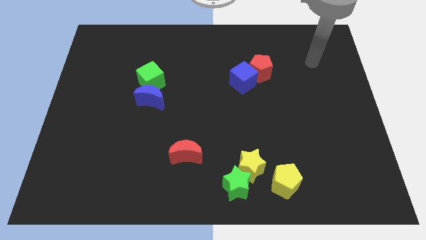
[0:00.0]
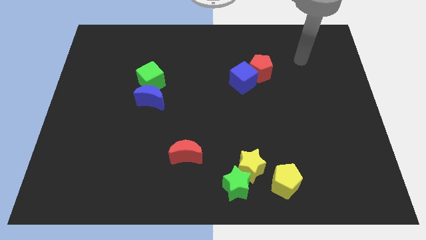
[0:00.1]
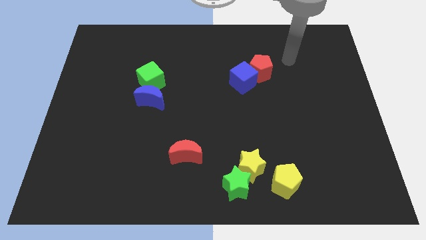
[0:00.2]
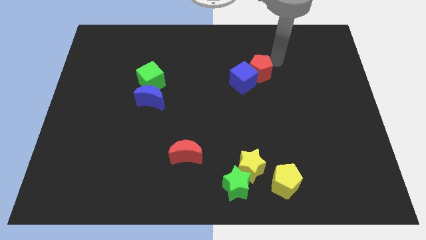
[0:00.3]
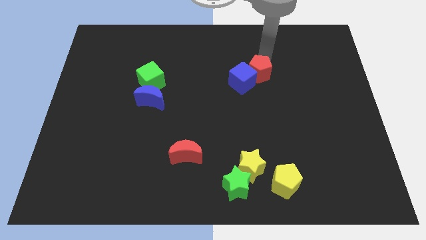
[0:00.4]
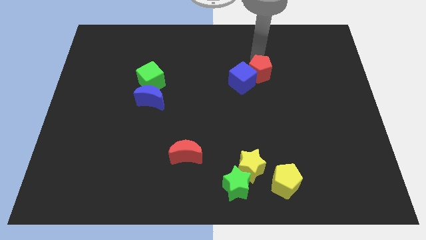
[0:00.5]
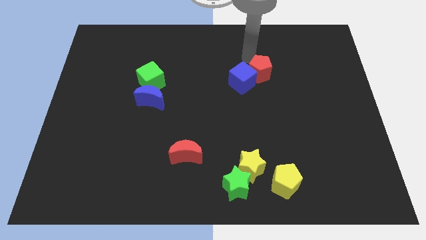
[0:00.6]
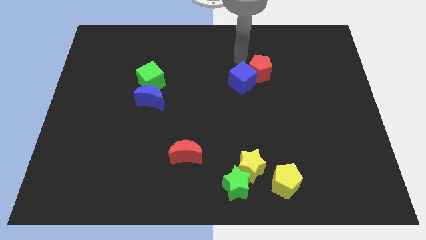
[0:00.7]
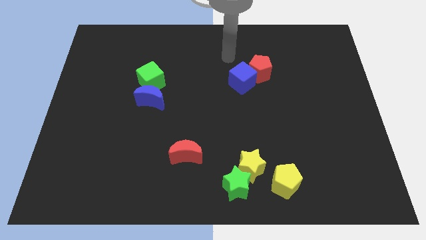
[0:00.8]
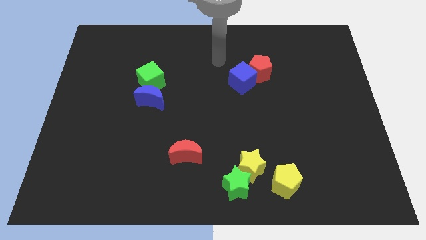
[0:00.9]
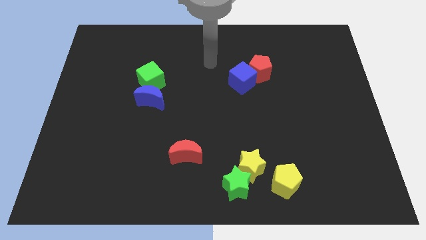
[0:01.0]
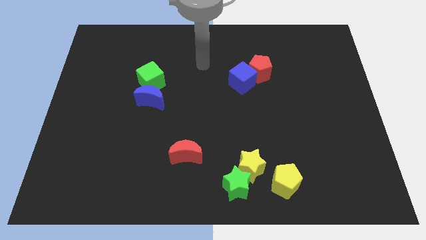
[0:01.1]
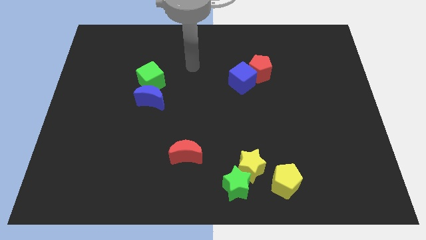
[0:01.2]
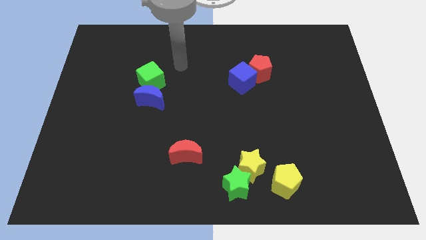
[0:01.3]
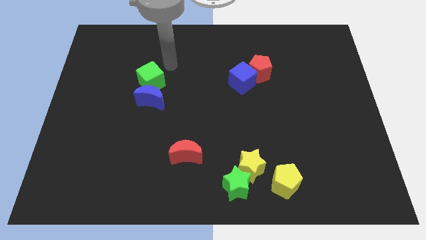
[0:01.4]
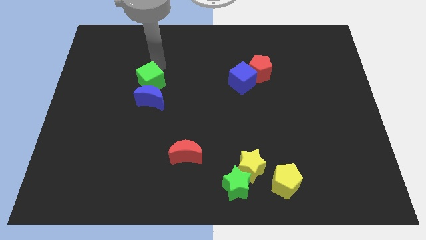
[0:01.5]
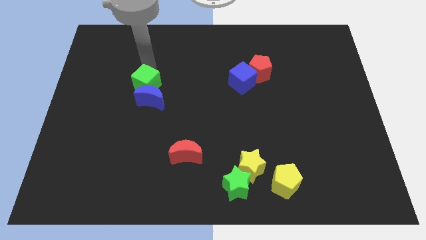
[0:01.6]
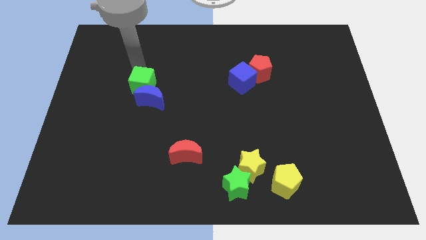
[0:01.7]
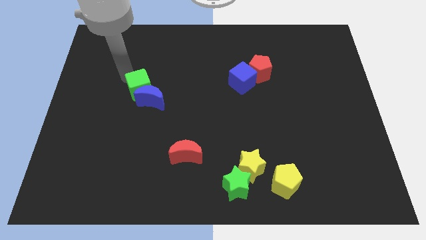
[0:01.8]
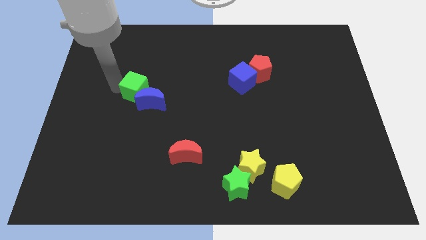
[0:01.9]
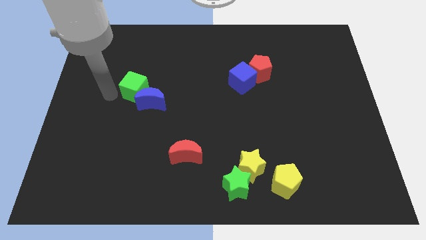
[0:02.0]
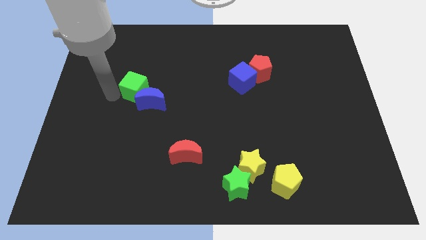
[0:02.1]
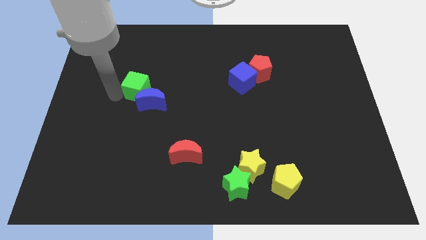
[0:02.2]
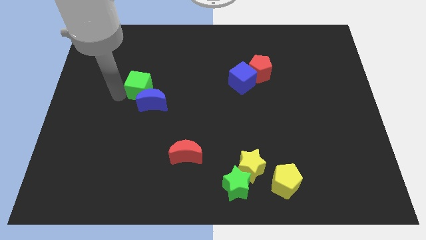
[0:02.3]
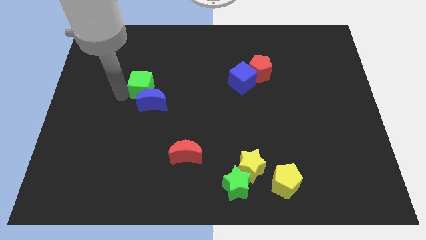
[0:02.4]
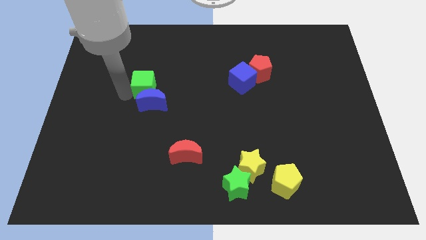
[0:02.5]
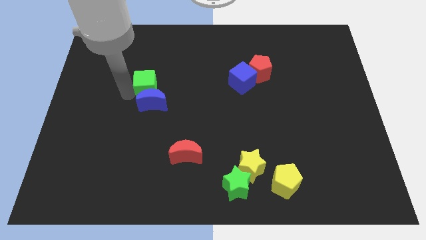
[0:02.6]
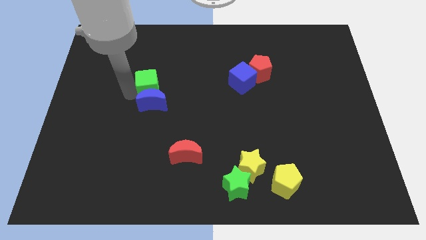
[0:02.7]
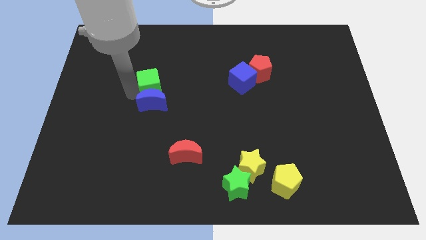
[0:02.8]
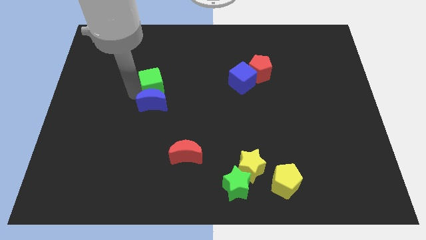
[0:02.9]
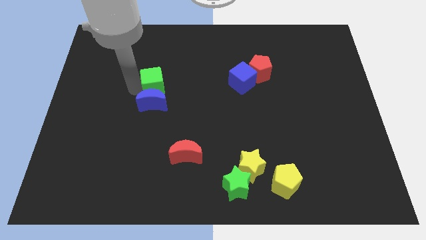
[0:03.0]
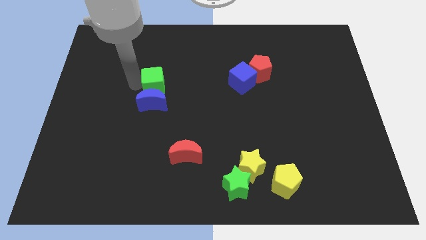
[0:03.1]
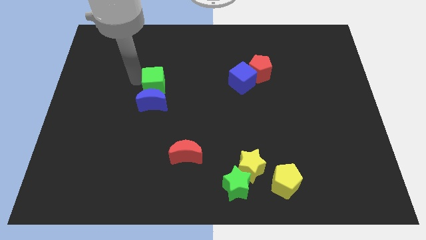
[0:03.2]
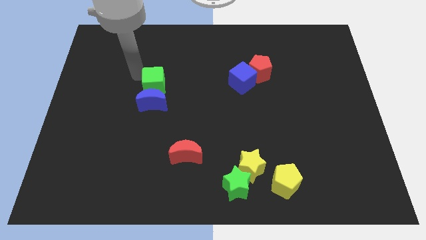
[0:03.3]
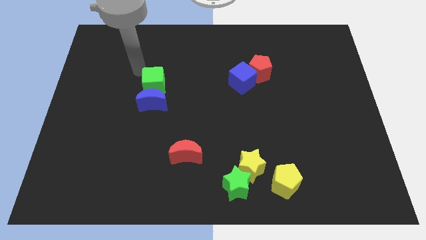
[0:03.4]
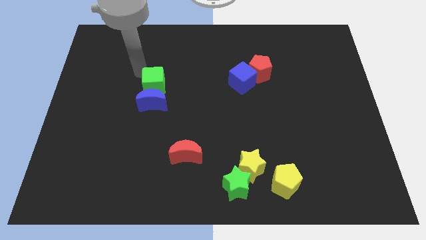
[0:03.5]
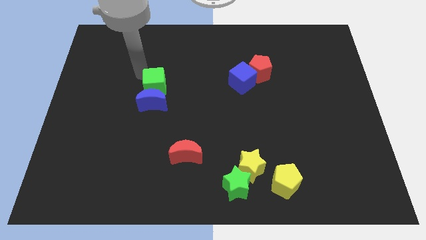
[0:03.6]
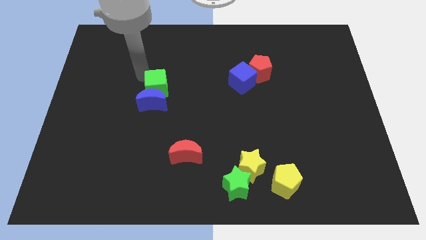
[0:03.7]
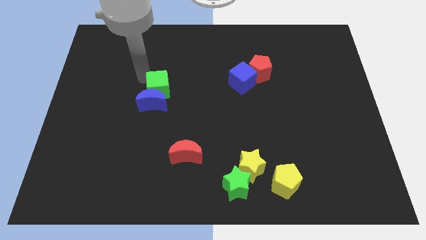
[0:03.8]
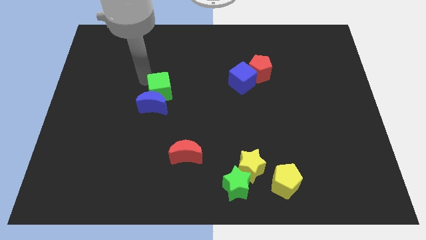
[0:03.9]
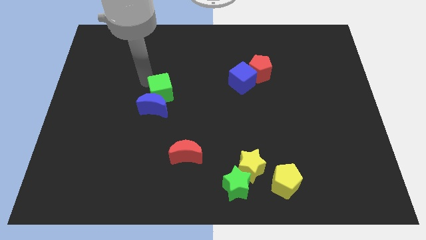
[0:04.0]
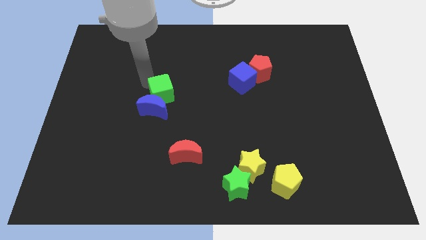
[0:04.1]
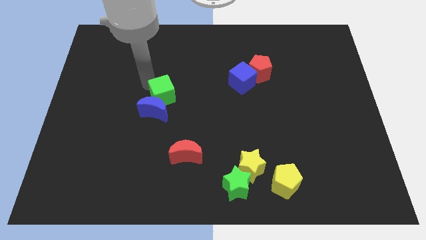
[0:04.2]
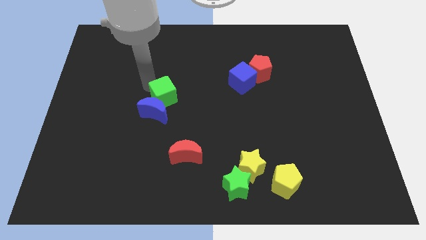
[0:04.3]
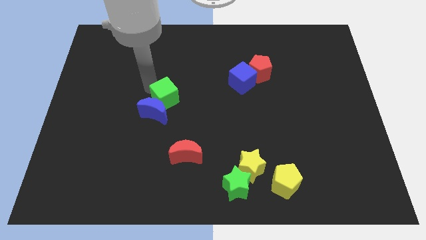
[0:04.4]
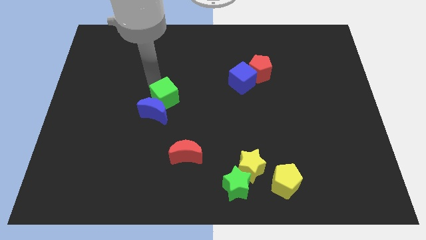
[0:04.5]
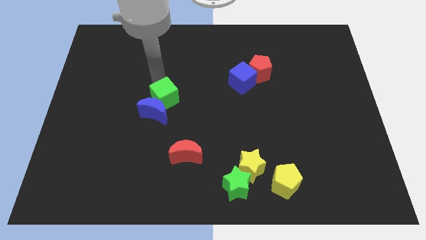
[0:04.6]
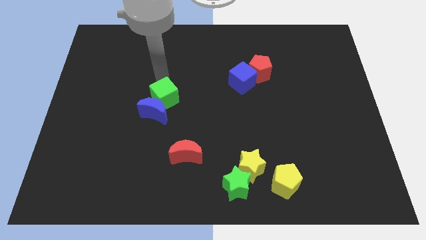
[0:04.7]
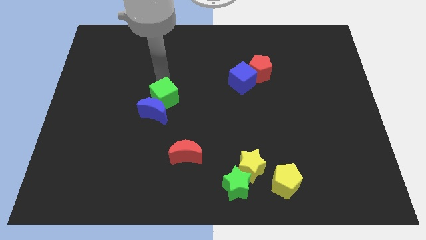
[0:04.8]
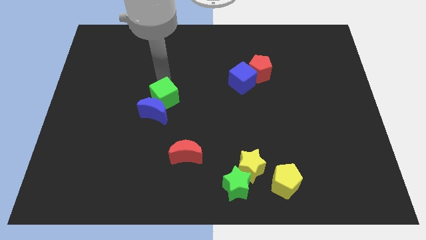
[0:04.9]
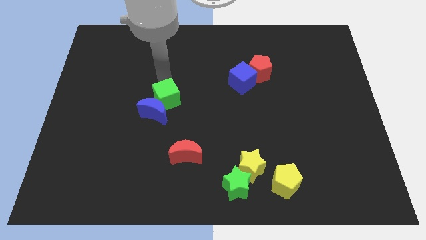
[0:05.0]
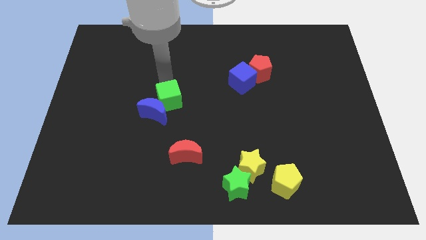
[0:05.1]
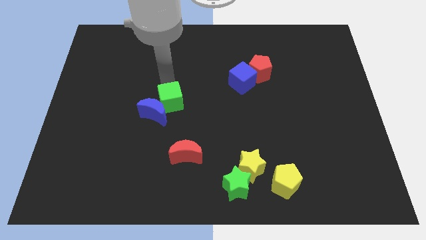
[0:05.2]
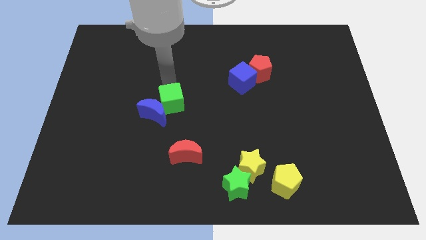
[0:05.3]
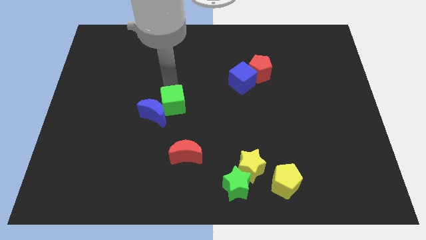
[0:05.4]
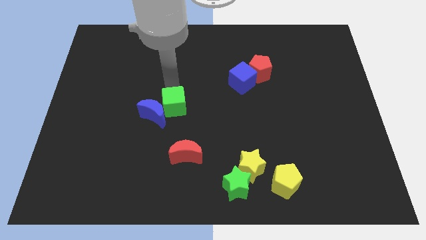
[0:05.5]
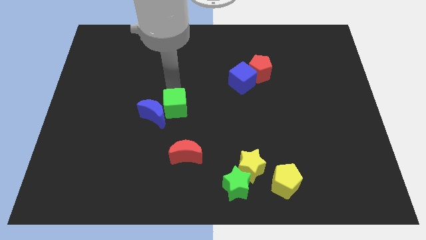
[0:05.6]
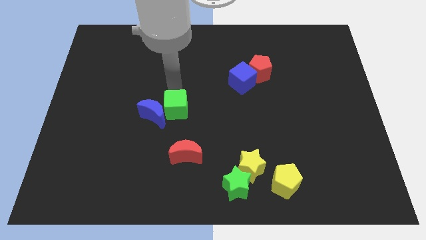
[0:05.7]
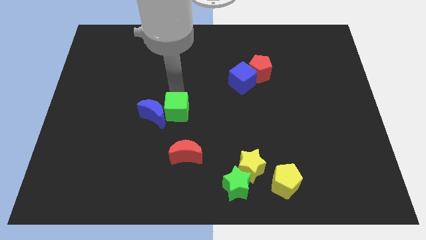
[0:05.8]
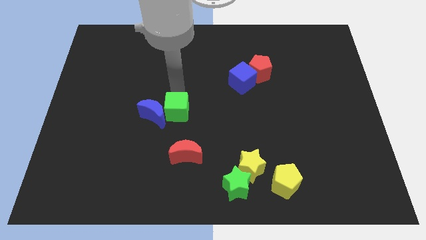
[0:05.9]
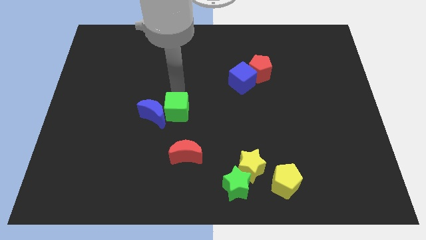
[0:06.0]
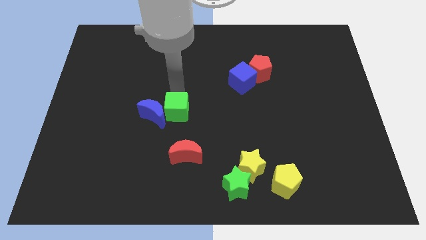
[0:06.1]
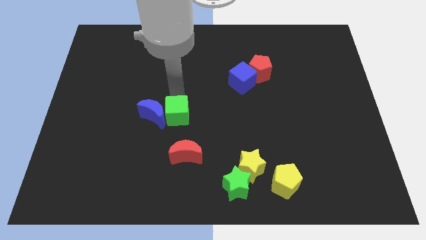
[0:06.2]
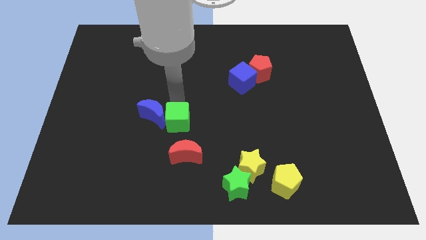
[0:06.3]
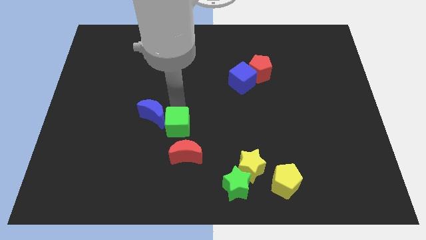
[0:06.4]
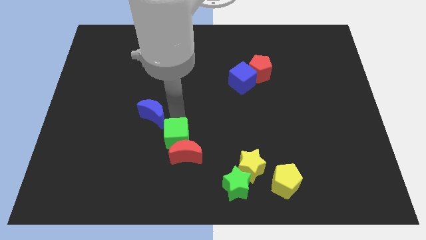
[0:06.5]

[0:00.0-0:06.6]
push the green cube towards the red moon

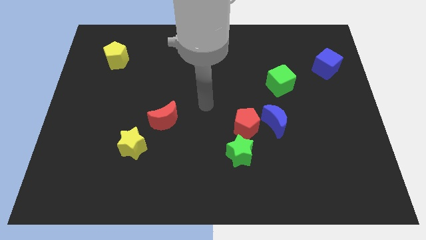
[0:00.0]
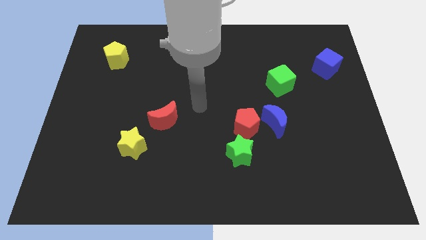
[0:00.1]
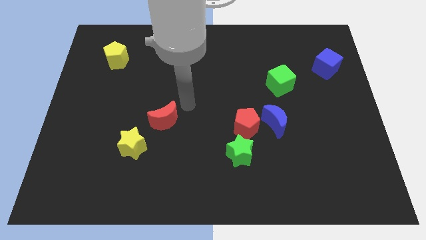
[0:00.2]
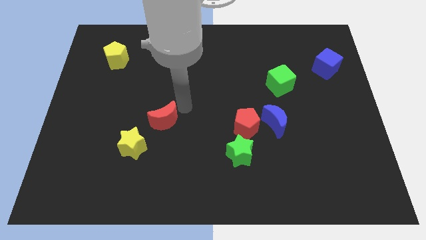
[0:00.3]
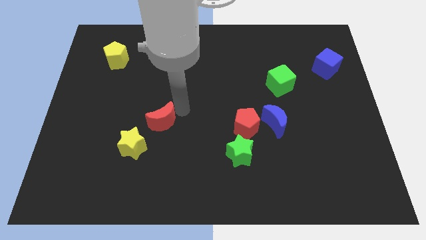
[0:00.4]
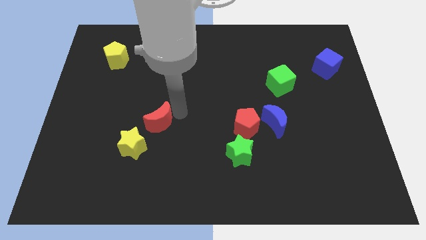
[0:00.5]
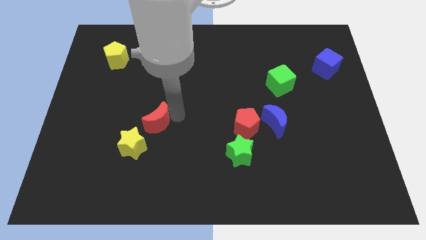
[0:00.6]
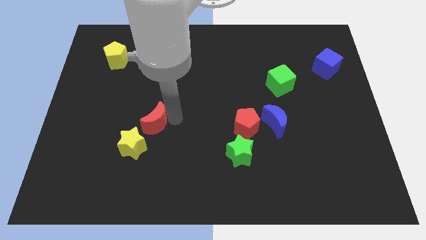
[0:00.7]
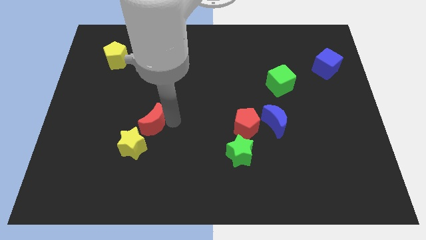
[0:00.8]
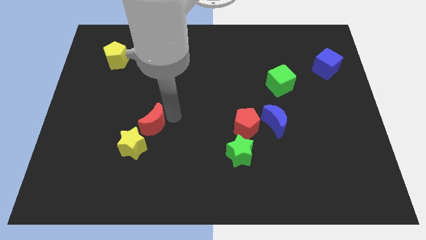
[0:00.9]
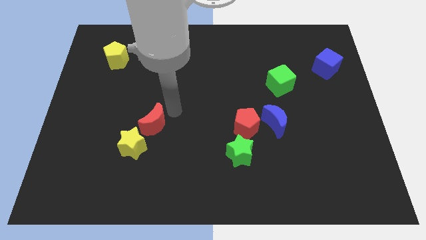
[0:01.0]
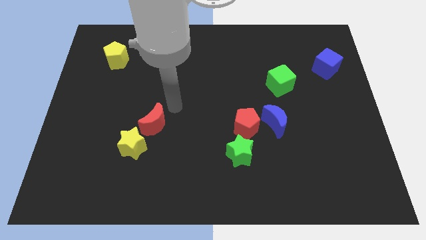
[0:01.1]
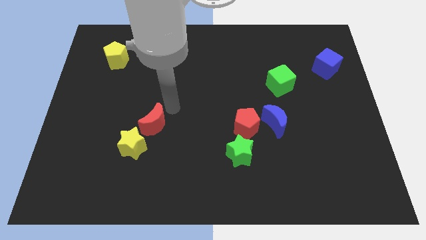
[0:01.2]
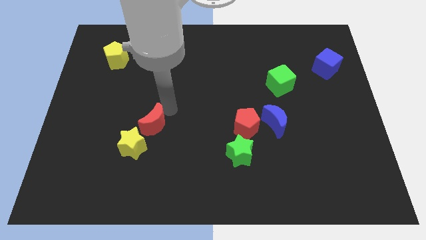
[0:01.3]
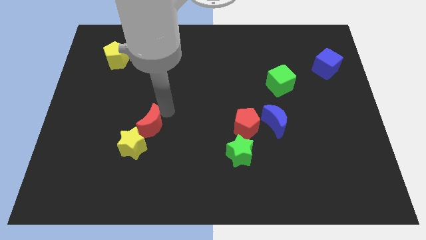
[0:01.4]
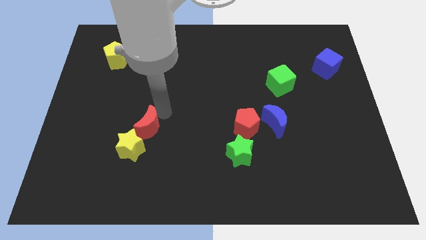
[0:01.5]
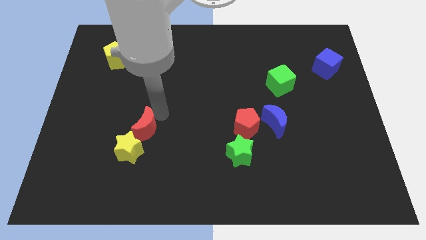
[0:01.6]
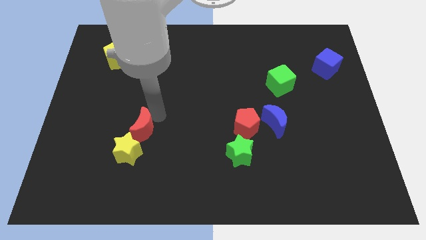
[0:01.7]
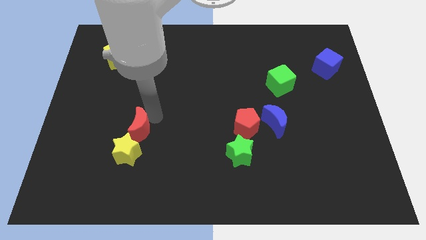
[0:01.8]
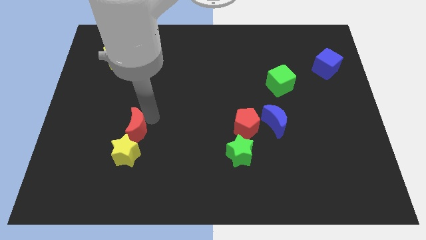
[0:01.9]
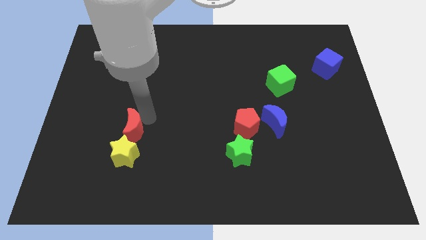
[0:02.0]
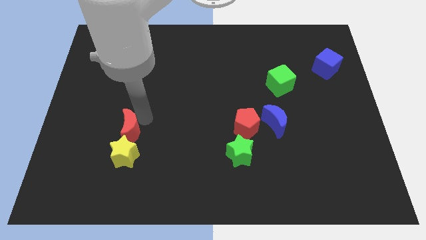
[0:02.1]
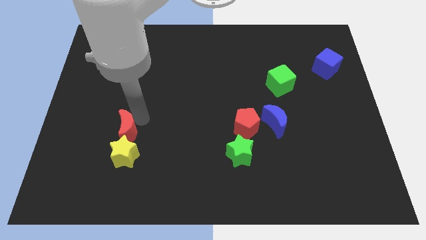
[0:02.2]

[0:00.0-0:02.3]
put the red moon to the yellow star
